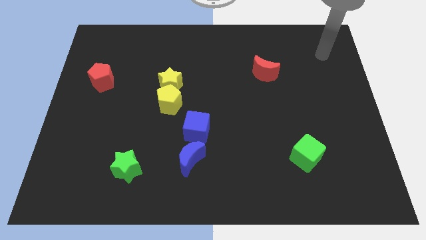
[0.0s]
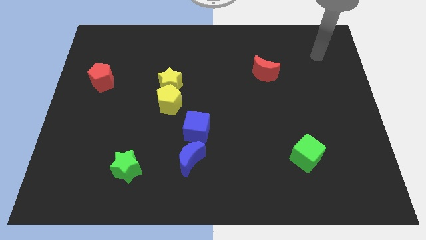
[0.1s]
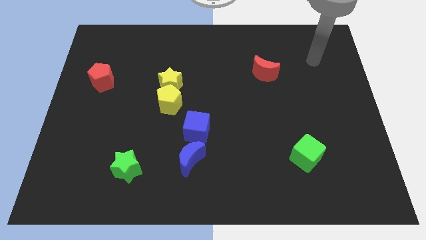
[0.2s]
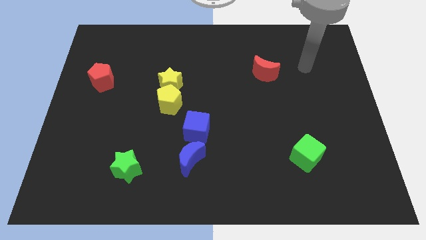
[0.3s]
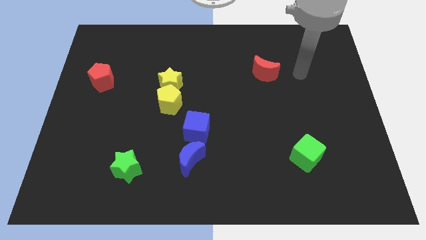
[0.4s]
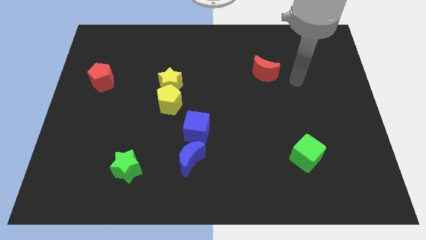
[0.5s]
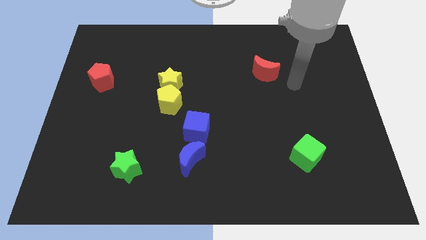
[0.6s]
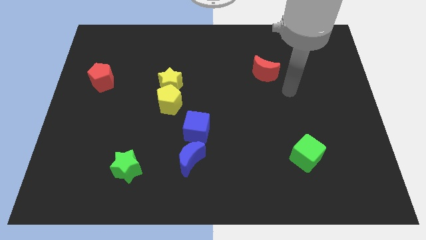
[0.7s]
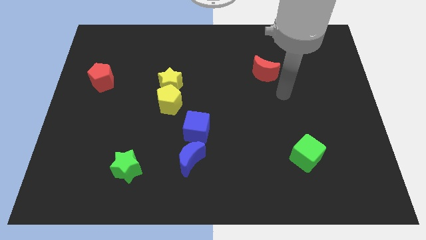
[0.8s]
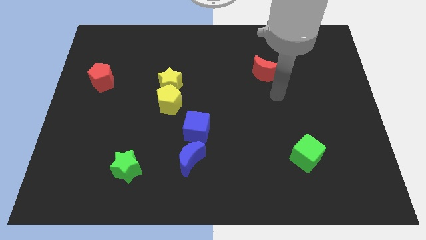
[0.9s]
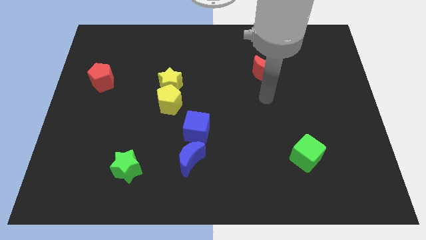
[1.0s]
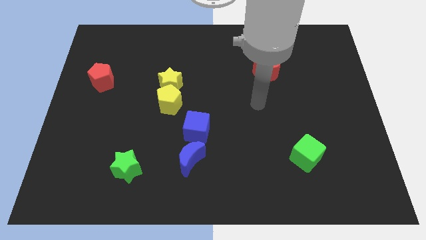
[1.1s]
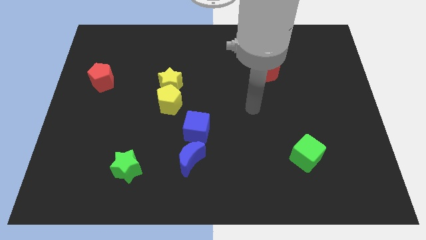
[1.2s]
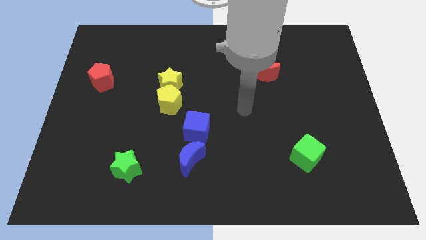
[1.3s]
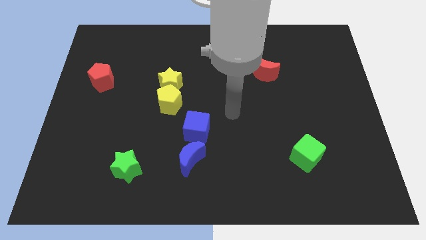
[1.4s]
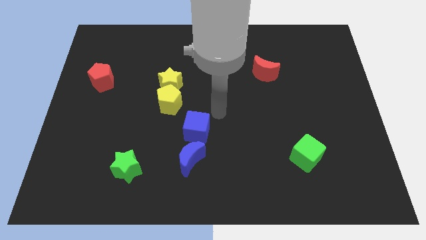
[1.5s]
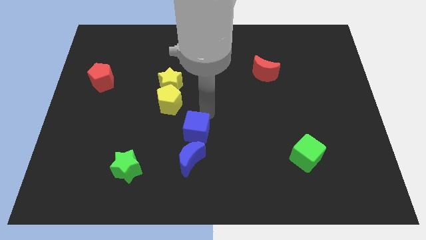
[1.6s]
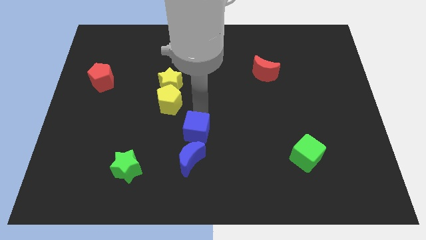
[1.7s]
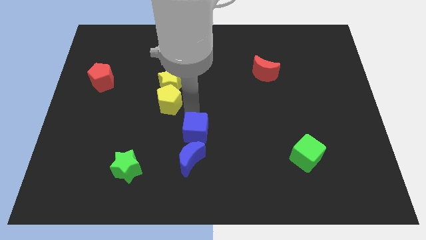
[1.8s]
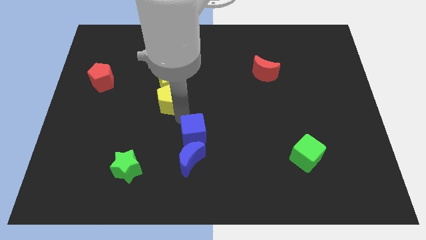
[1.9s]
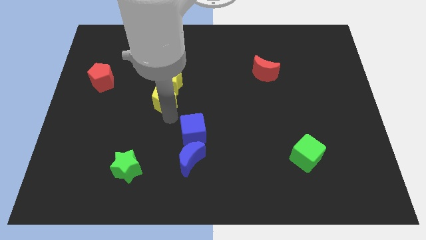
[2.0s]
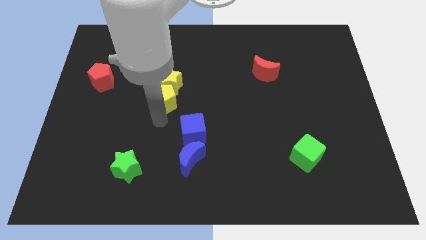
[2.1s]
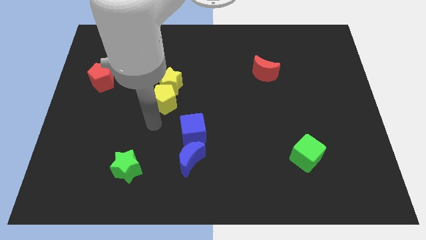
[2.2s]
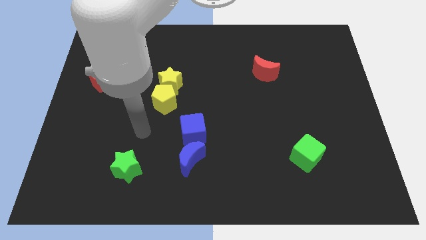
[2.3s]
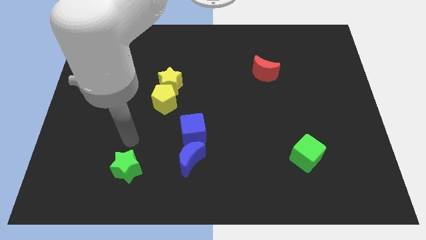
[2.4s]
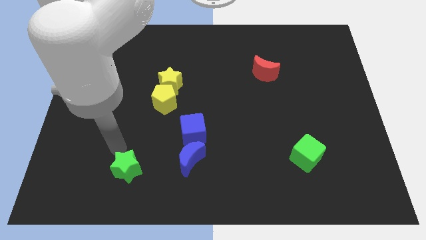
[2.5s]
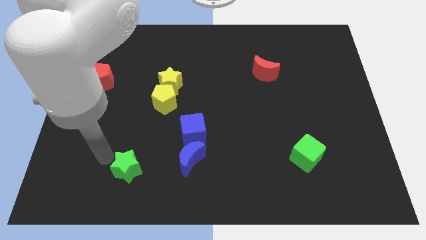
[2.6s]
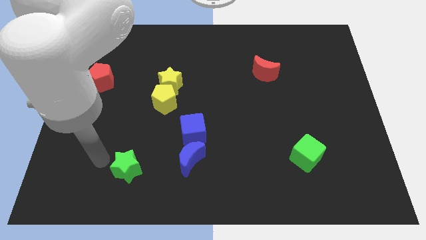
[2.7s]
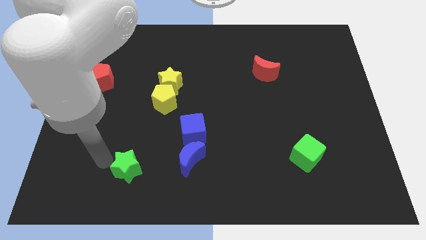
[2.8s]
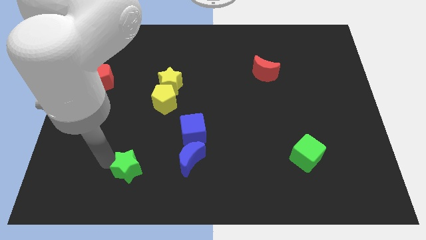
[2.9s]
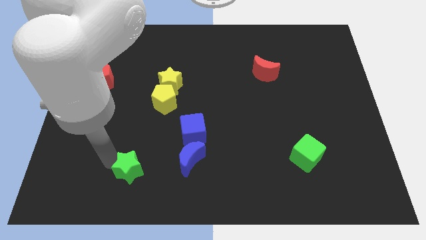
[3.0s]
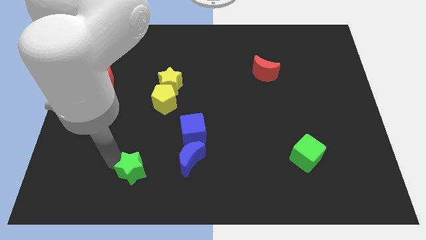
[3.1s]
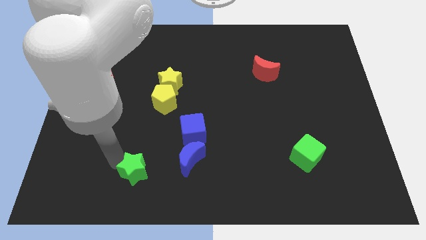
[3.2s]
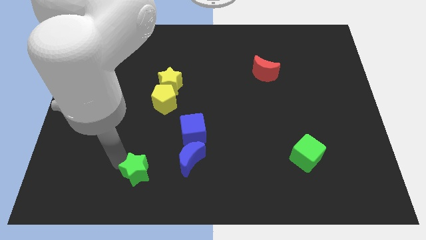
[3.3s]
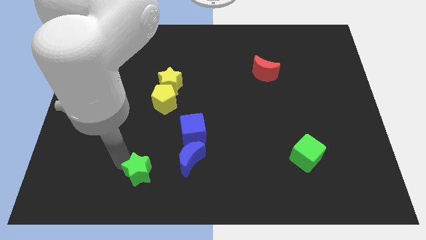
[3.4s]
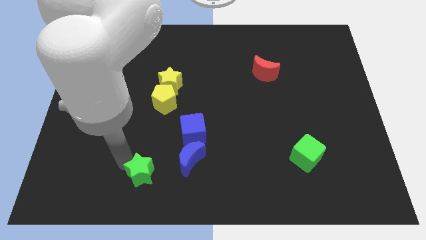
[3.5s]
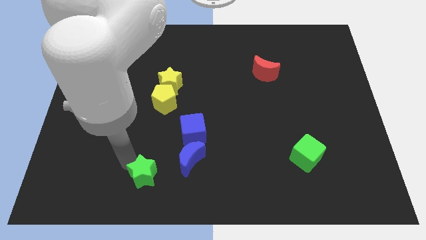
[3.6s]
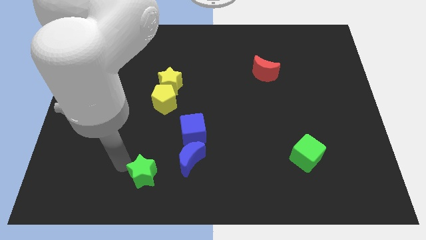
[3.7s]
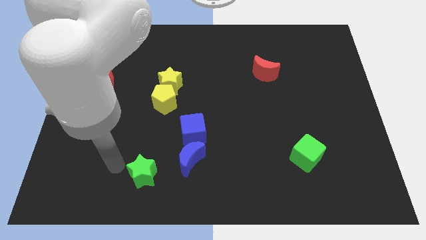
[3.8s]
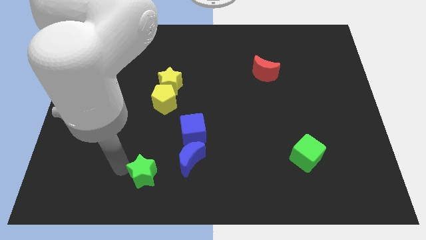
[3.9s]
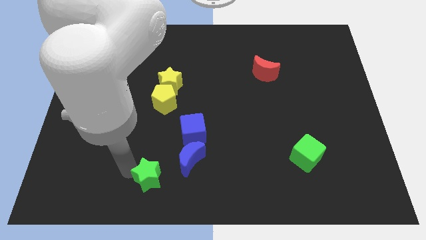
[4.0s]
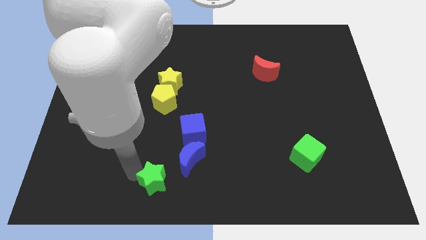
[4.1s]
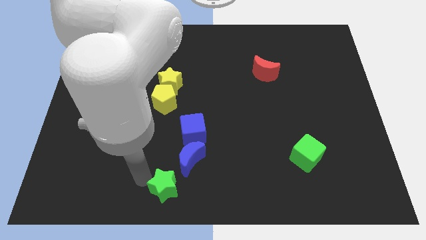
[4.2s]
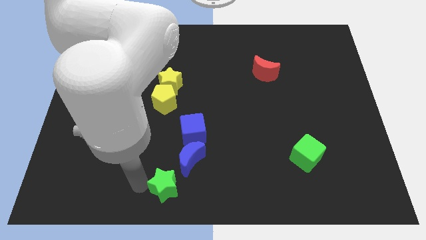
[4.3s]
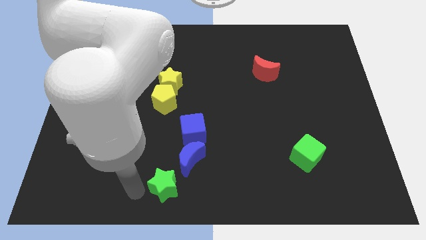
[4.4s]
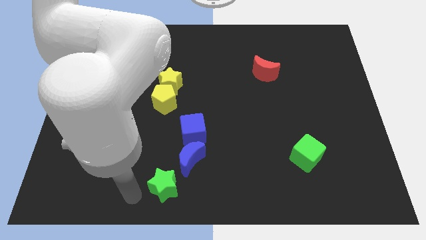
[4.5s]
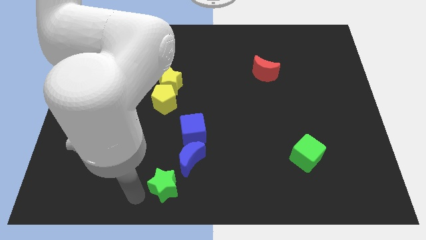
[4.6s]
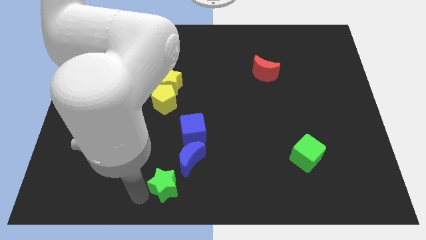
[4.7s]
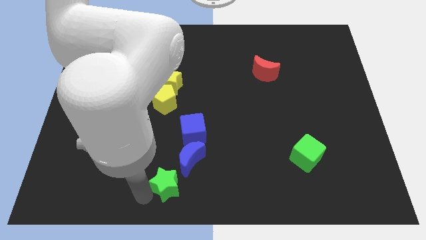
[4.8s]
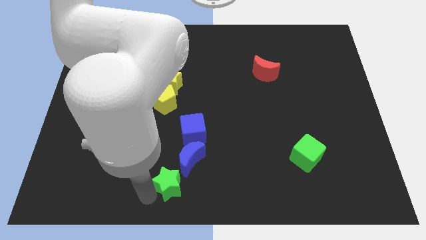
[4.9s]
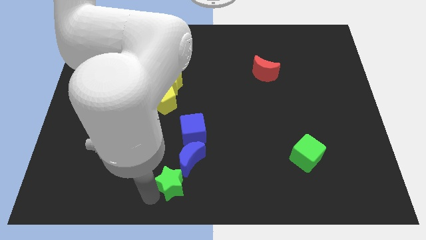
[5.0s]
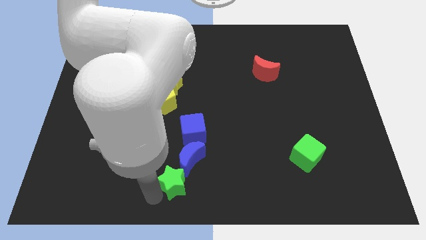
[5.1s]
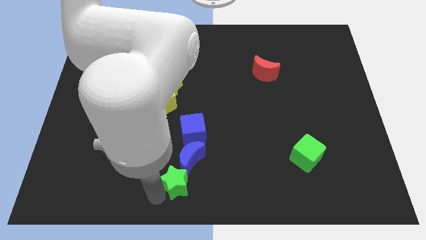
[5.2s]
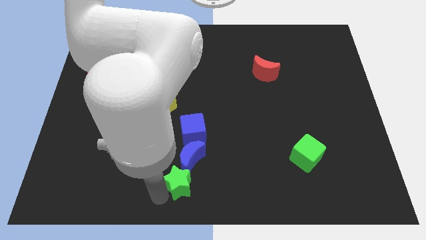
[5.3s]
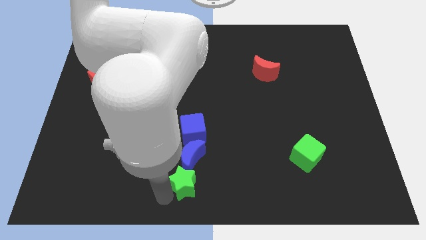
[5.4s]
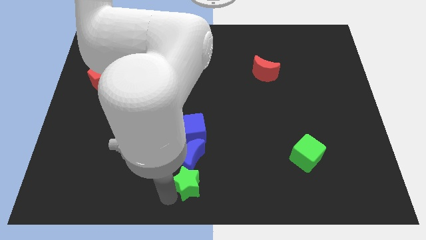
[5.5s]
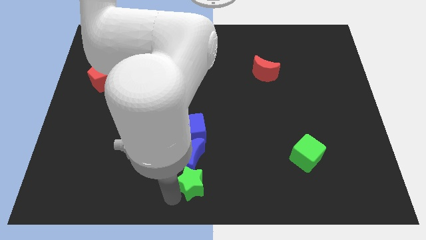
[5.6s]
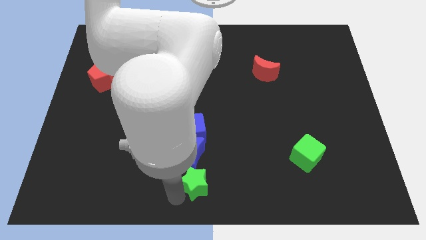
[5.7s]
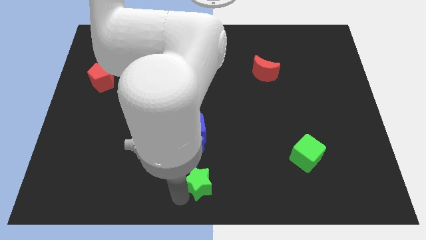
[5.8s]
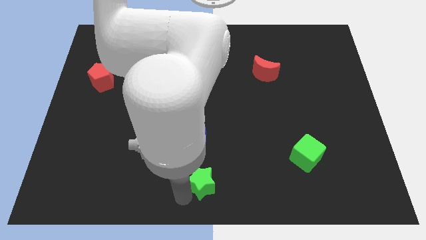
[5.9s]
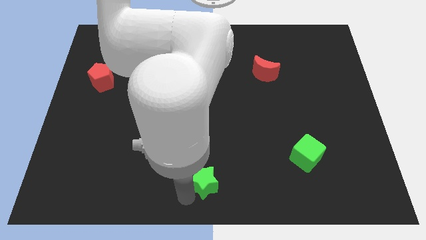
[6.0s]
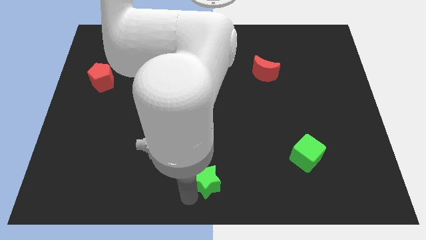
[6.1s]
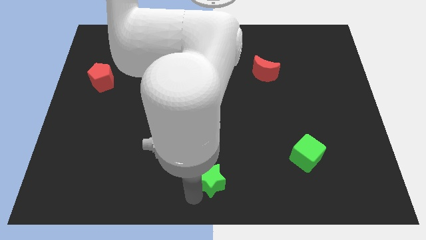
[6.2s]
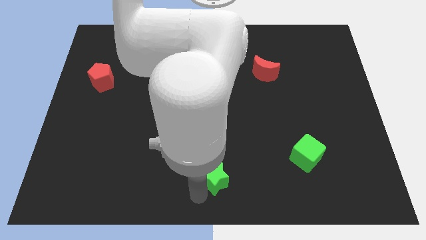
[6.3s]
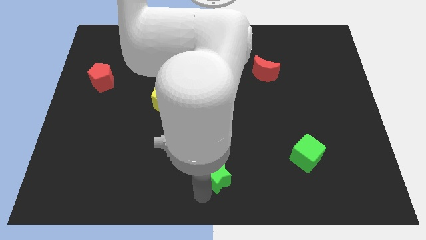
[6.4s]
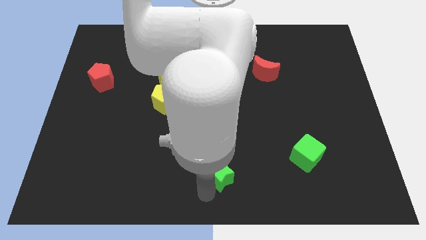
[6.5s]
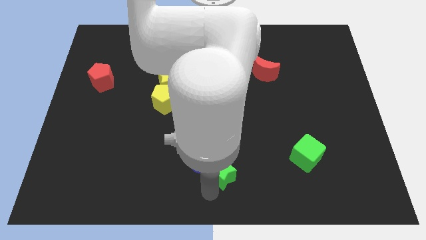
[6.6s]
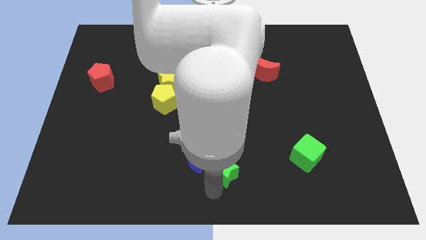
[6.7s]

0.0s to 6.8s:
move the green star right

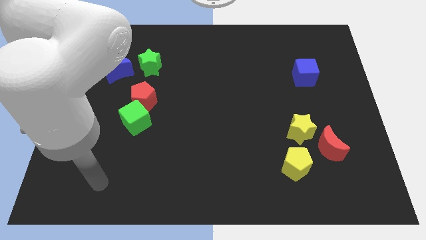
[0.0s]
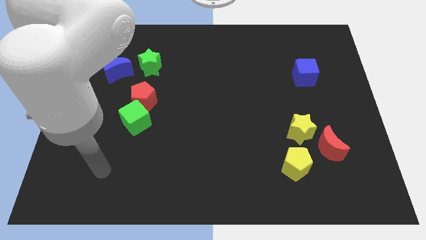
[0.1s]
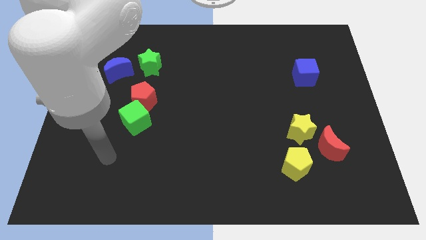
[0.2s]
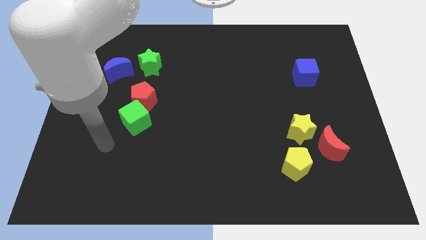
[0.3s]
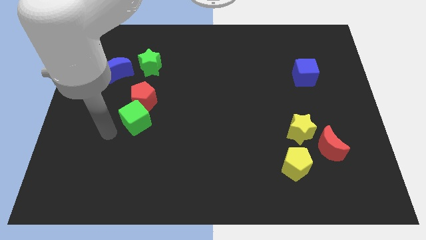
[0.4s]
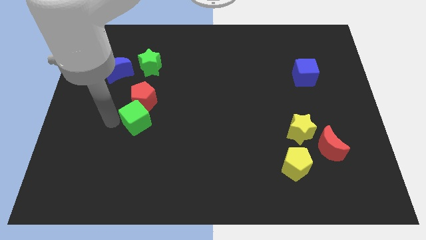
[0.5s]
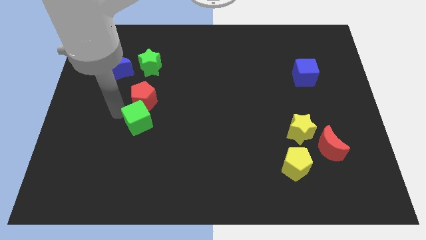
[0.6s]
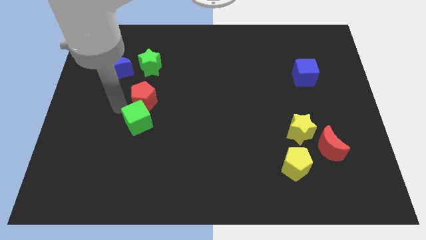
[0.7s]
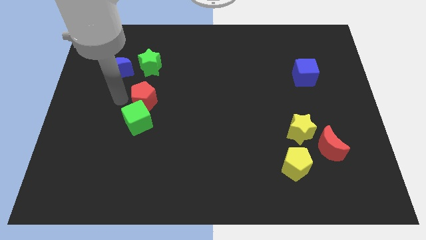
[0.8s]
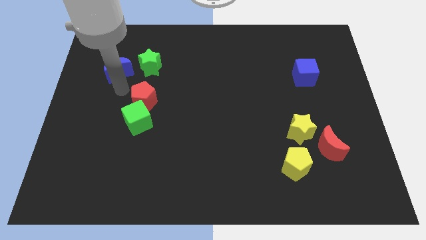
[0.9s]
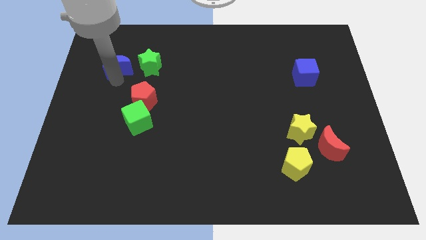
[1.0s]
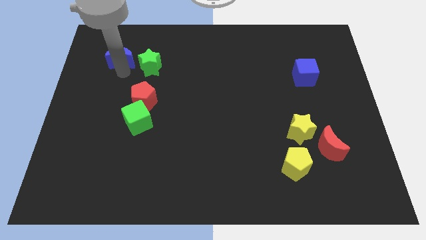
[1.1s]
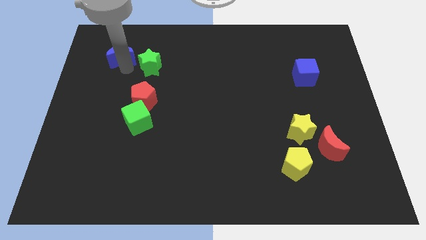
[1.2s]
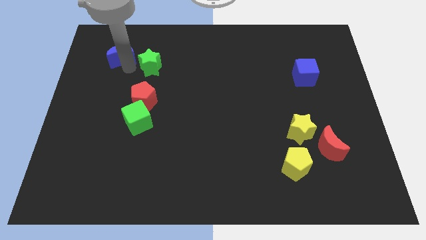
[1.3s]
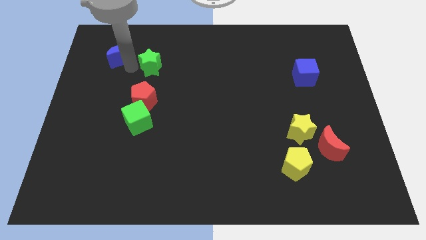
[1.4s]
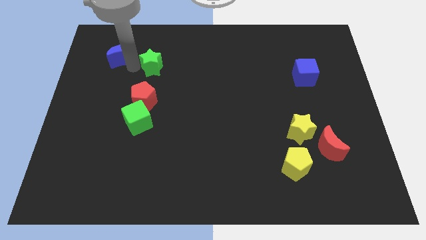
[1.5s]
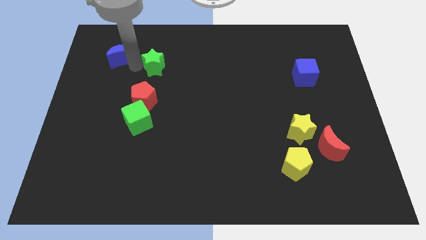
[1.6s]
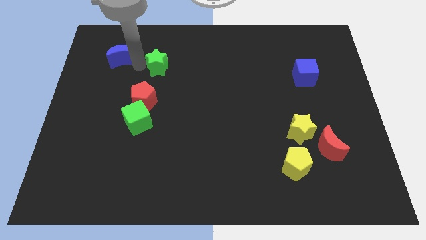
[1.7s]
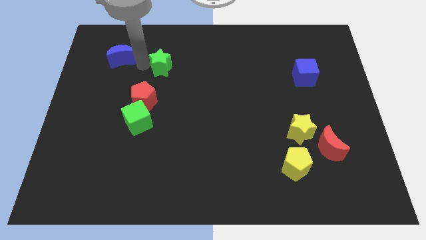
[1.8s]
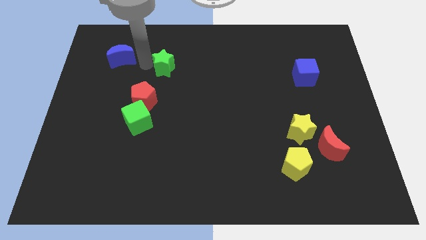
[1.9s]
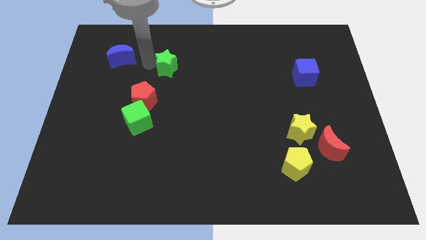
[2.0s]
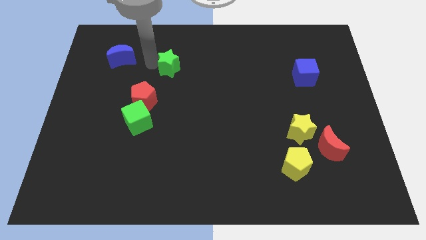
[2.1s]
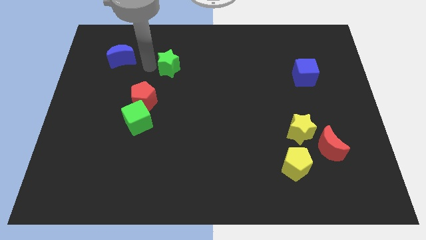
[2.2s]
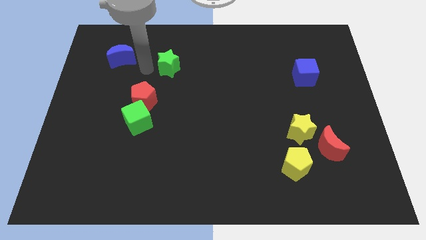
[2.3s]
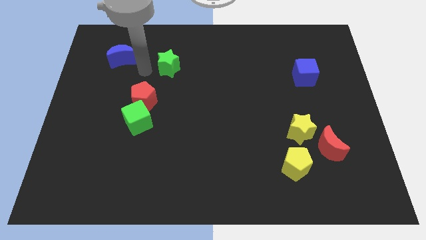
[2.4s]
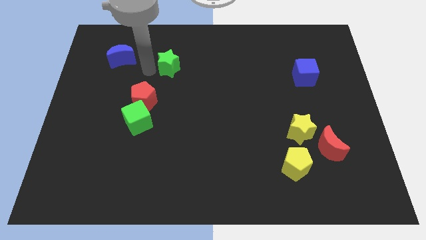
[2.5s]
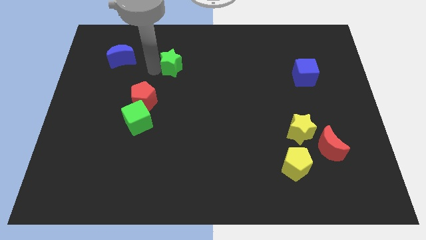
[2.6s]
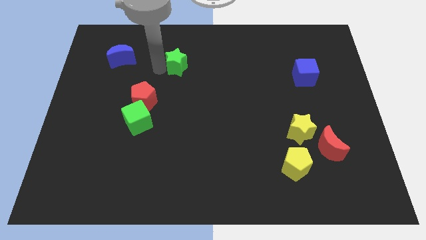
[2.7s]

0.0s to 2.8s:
move the green star right a bit
